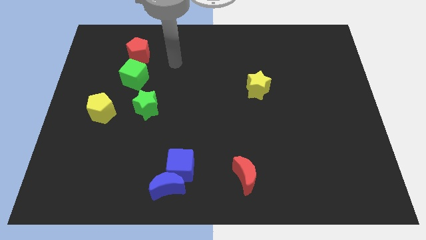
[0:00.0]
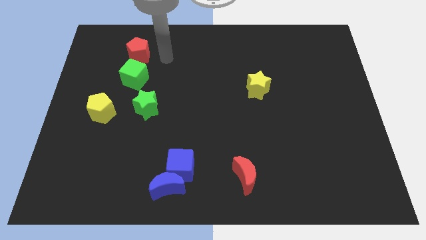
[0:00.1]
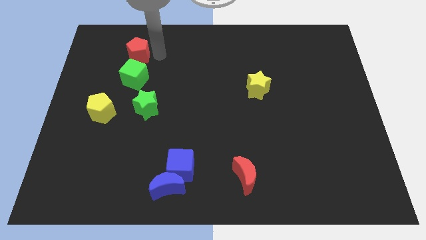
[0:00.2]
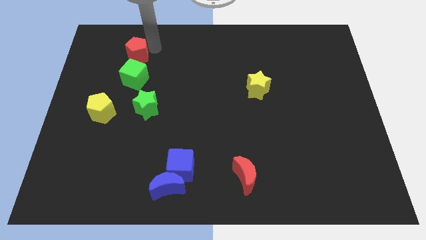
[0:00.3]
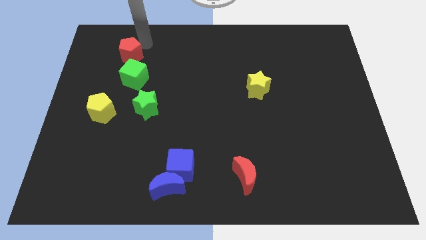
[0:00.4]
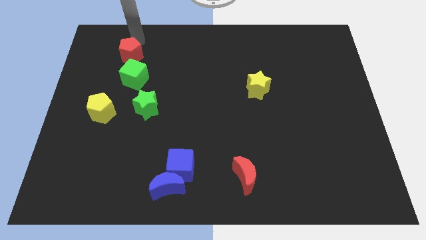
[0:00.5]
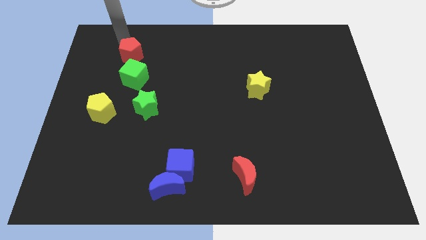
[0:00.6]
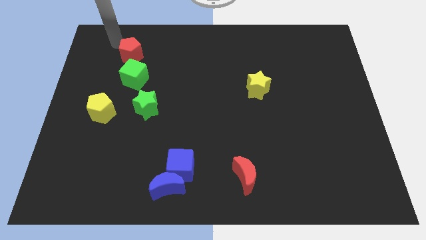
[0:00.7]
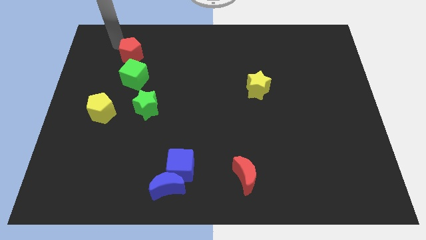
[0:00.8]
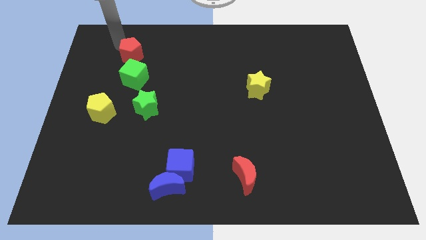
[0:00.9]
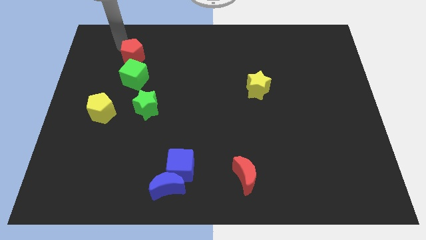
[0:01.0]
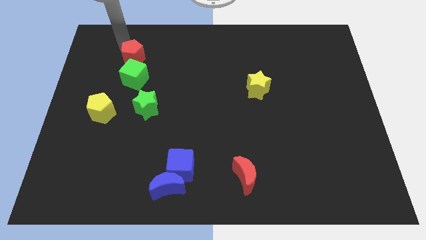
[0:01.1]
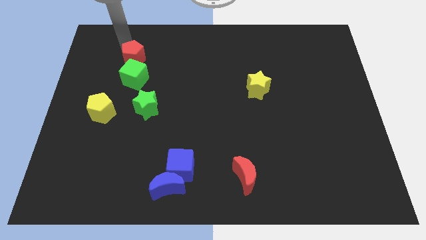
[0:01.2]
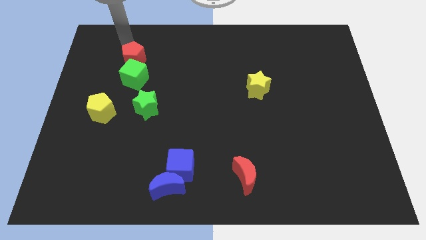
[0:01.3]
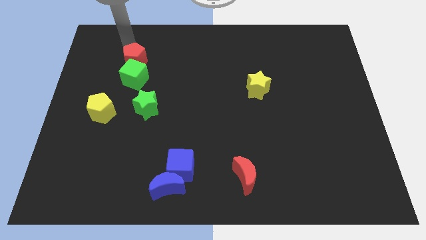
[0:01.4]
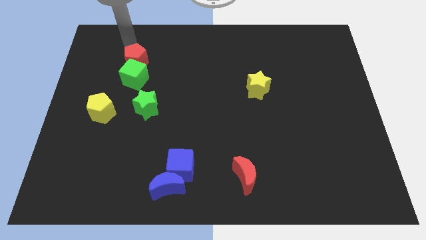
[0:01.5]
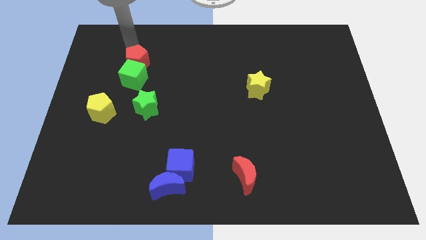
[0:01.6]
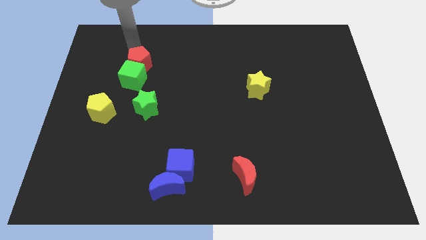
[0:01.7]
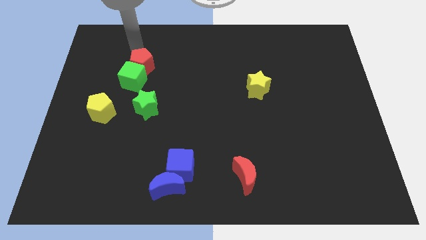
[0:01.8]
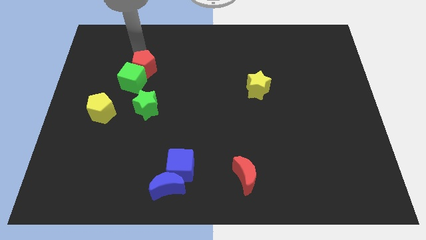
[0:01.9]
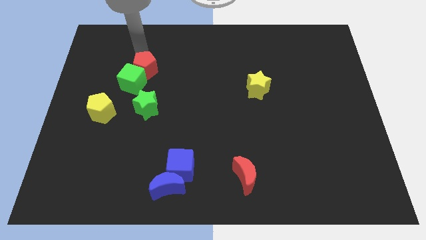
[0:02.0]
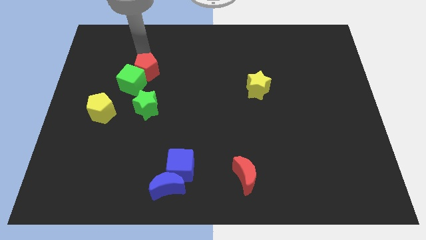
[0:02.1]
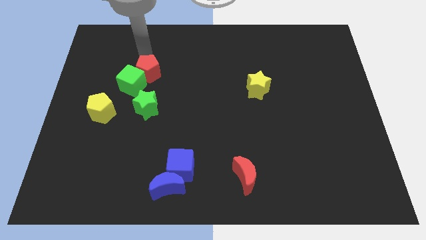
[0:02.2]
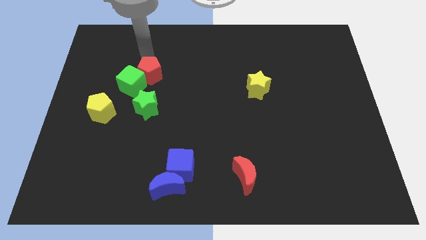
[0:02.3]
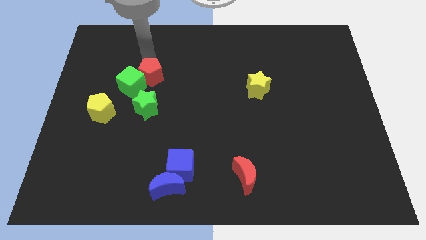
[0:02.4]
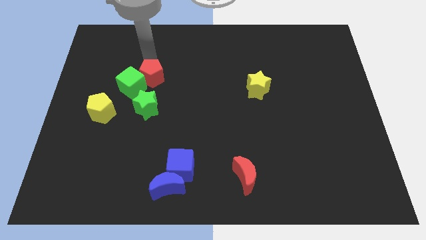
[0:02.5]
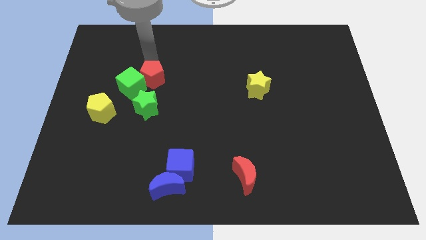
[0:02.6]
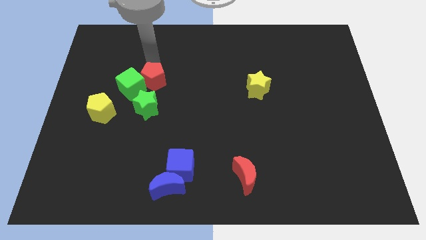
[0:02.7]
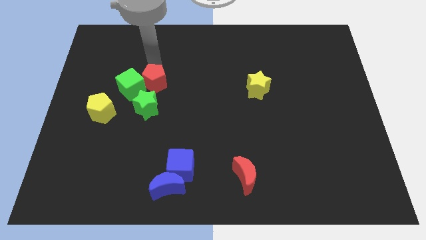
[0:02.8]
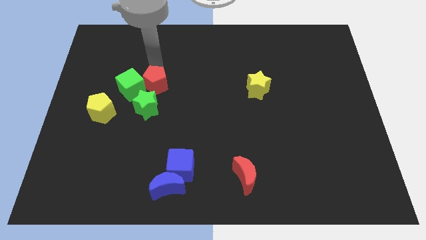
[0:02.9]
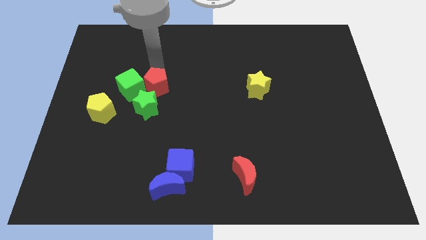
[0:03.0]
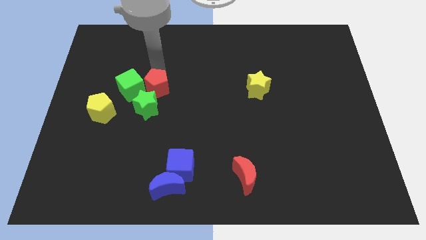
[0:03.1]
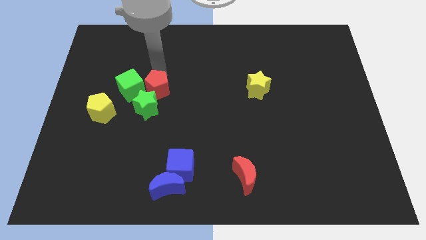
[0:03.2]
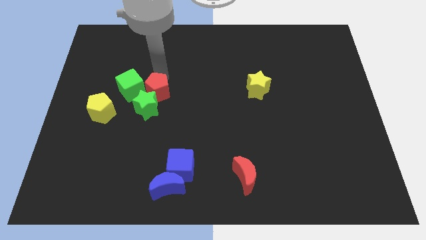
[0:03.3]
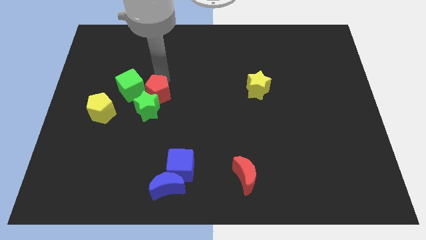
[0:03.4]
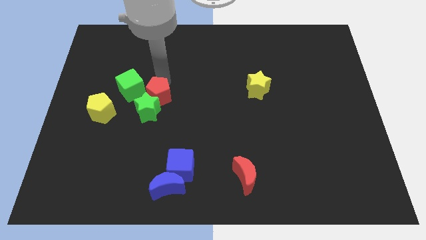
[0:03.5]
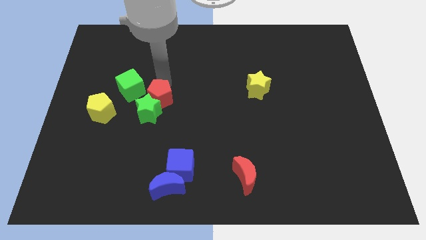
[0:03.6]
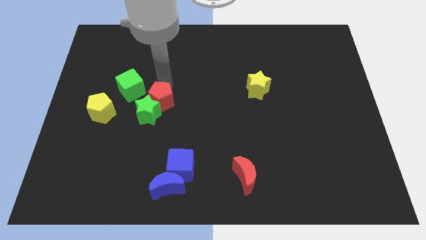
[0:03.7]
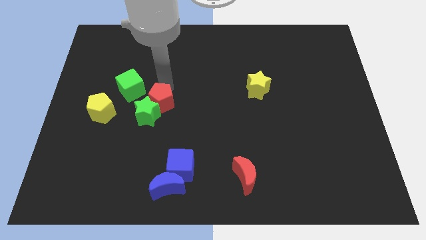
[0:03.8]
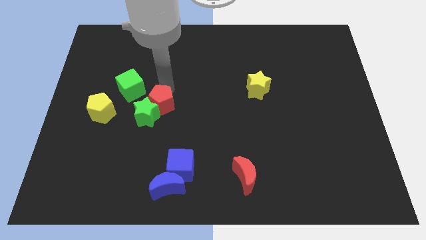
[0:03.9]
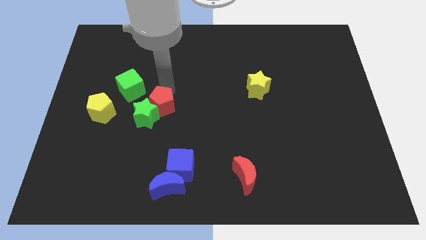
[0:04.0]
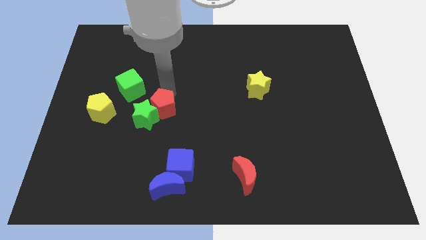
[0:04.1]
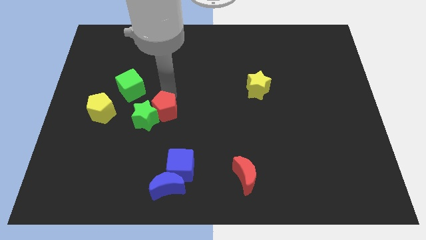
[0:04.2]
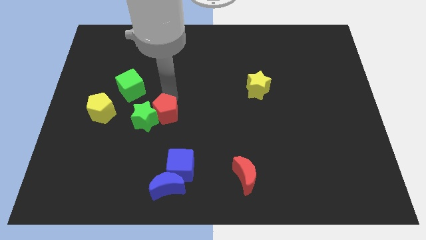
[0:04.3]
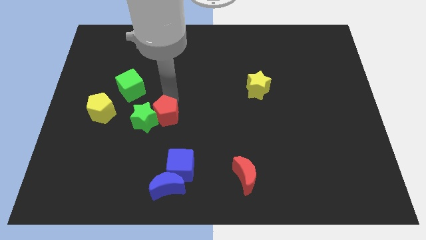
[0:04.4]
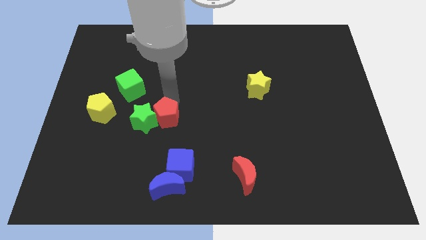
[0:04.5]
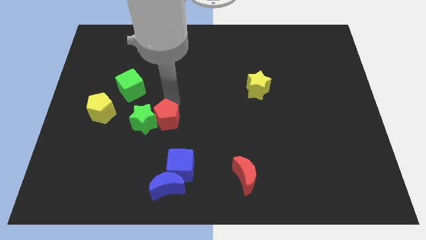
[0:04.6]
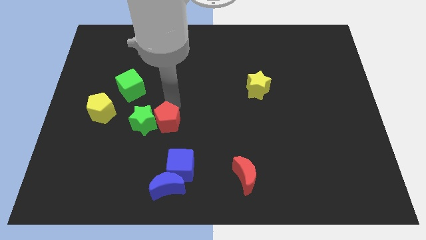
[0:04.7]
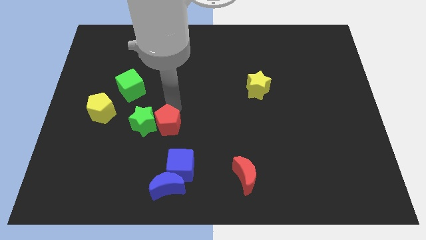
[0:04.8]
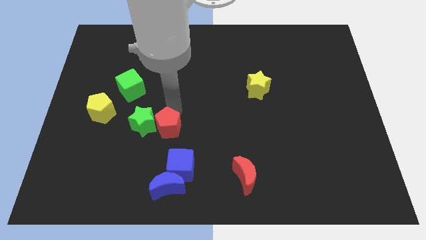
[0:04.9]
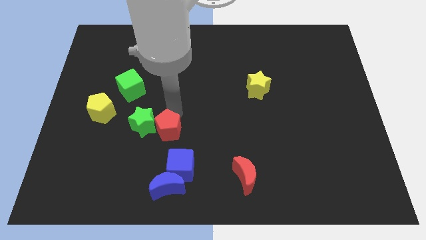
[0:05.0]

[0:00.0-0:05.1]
put the red pentagon diagonally up and to the left of the blue cube

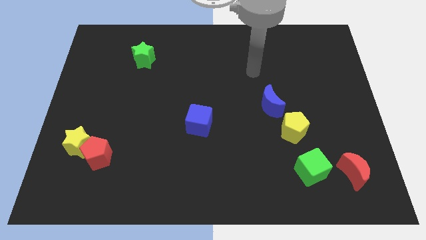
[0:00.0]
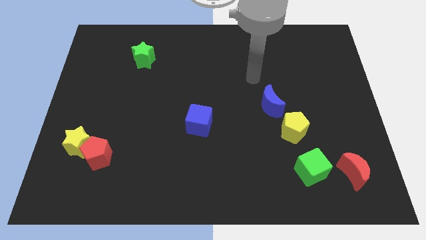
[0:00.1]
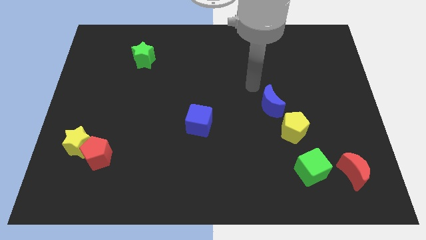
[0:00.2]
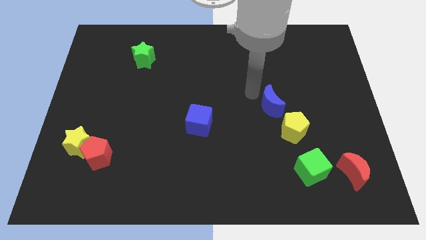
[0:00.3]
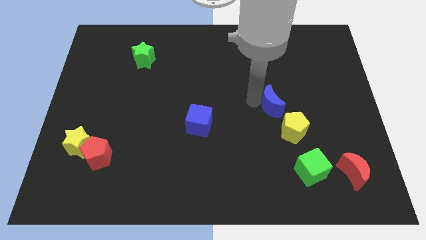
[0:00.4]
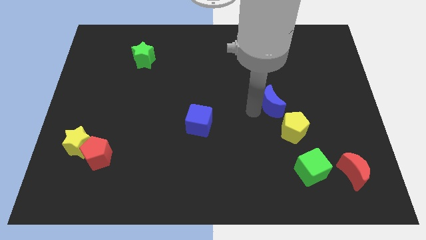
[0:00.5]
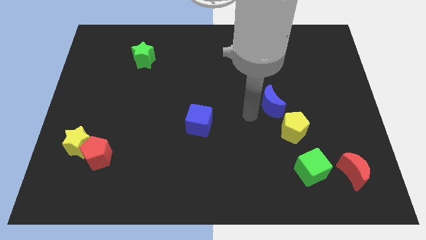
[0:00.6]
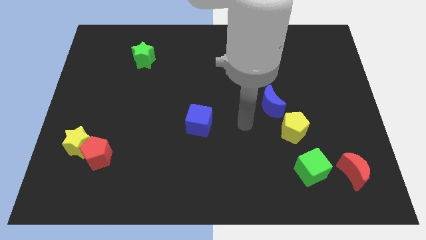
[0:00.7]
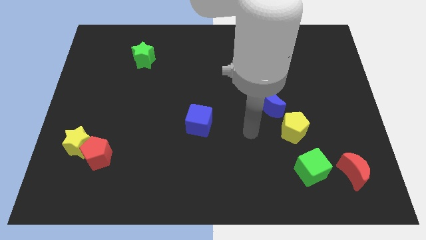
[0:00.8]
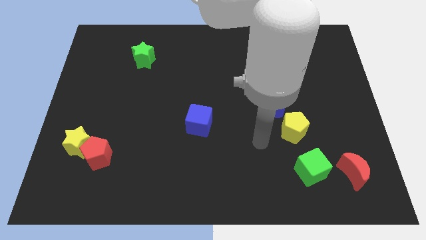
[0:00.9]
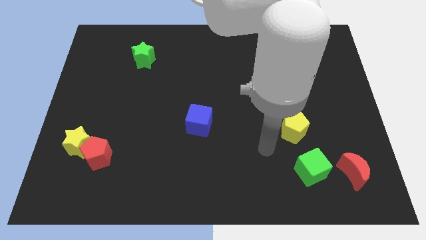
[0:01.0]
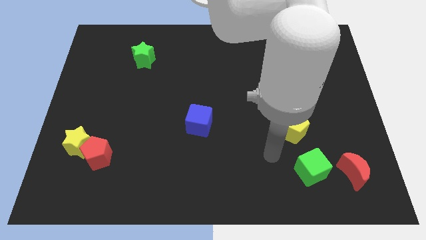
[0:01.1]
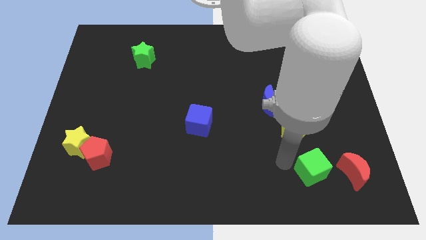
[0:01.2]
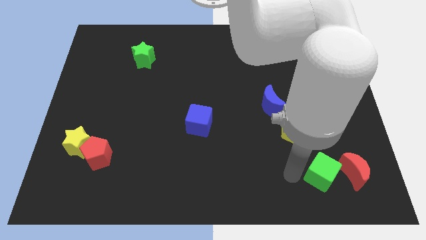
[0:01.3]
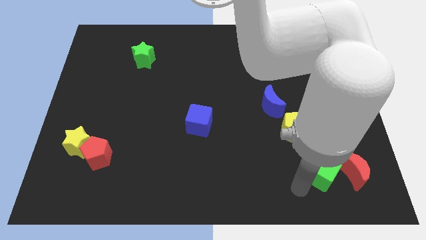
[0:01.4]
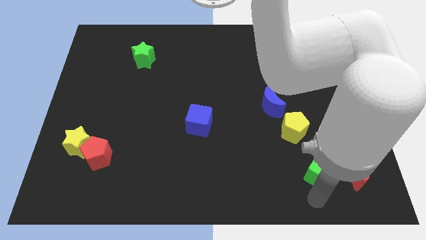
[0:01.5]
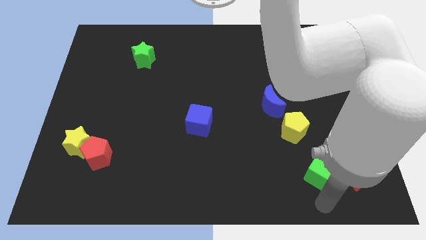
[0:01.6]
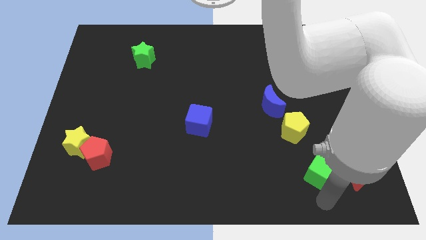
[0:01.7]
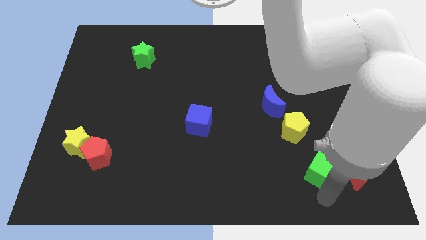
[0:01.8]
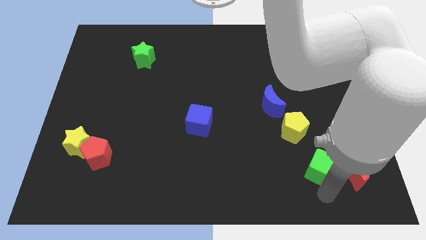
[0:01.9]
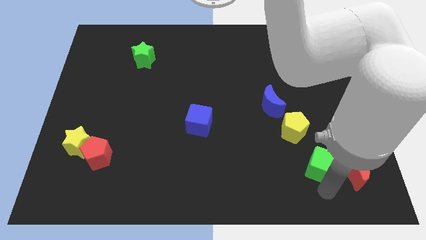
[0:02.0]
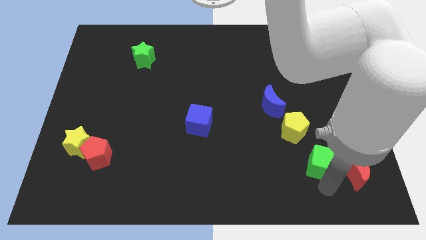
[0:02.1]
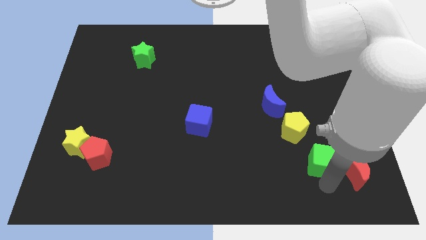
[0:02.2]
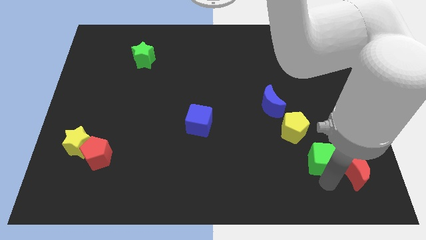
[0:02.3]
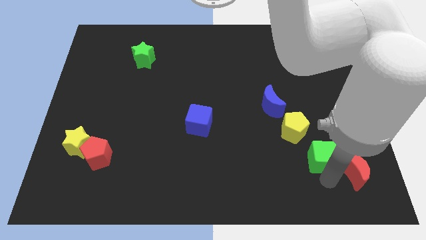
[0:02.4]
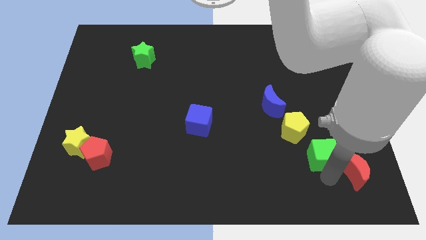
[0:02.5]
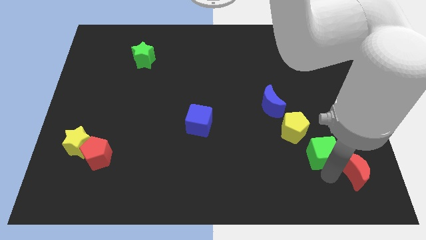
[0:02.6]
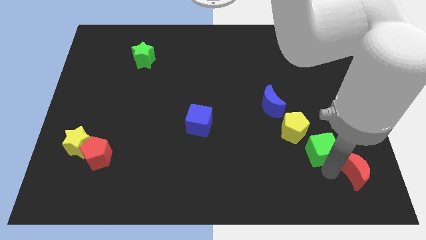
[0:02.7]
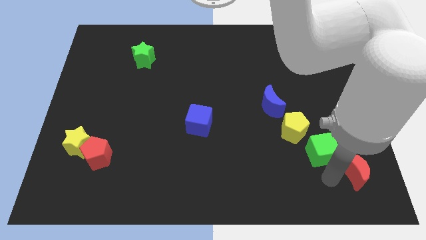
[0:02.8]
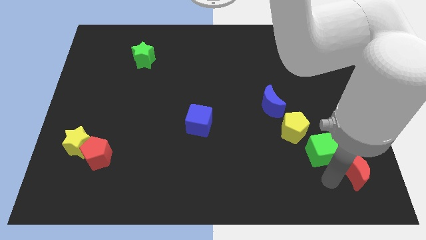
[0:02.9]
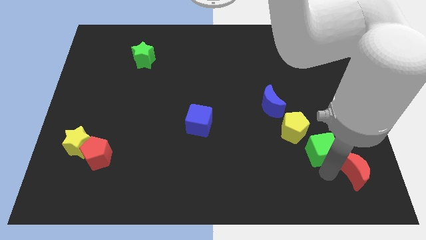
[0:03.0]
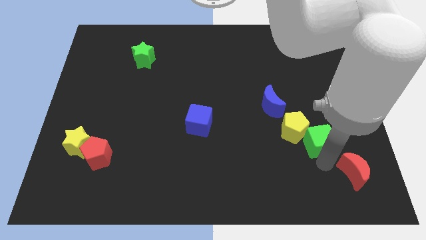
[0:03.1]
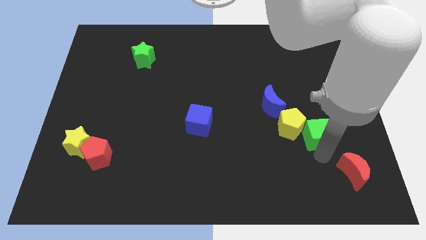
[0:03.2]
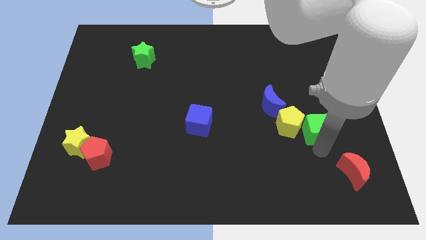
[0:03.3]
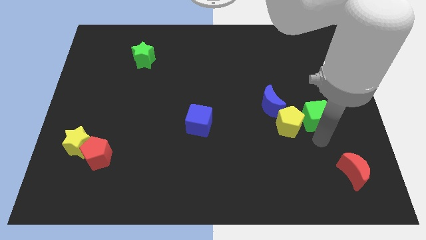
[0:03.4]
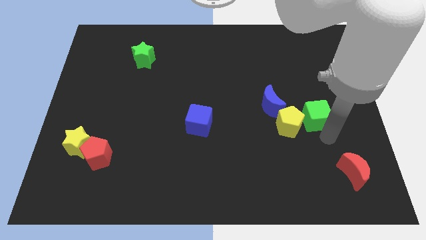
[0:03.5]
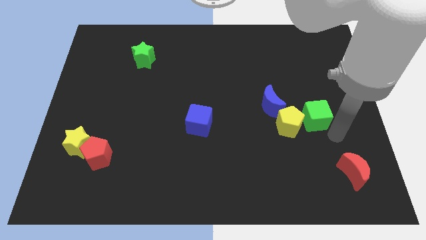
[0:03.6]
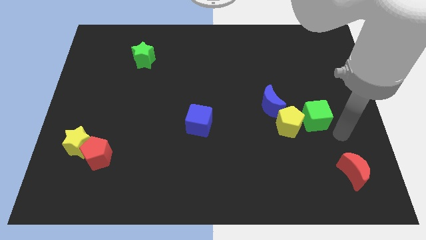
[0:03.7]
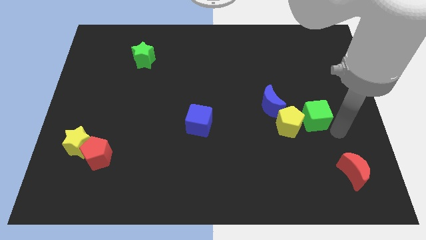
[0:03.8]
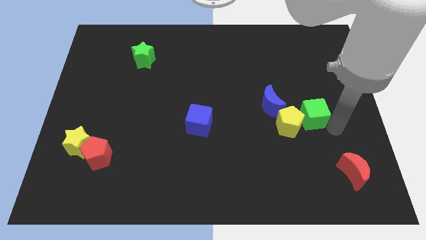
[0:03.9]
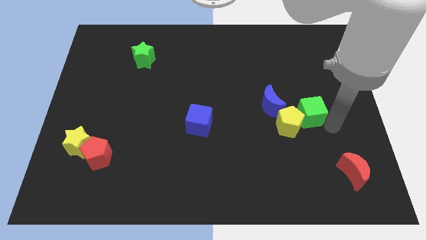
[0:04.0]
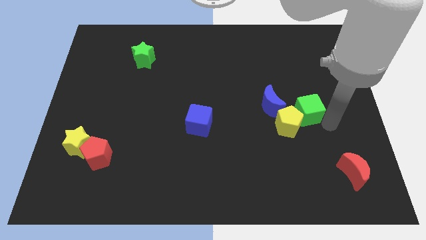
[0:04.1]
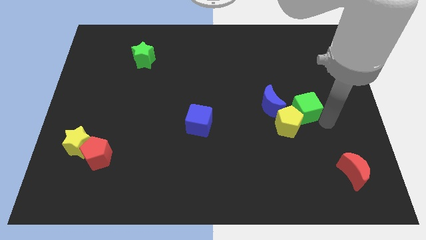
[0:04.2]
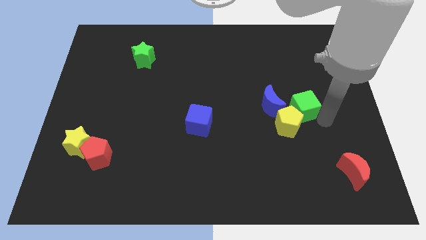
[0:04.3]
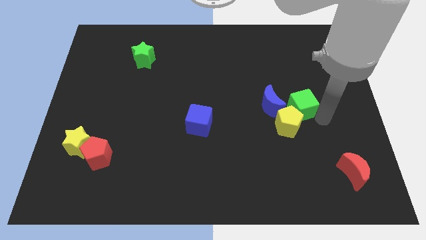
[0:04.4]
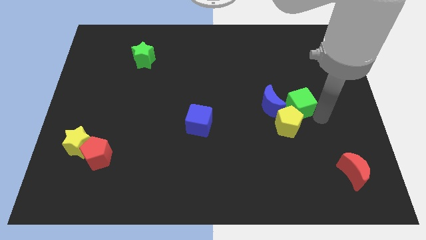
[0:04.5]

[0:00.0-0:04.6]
slide the green cube to the top right side of the blue moon
